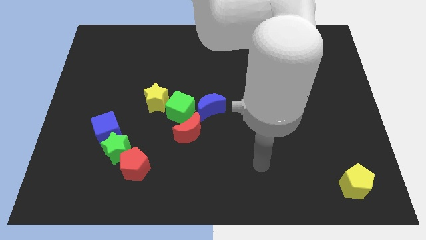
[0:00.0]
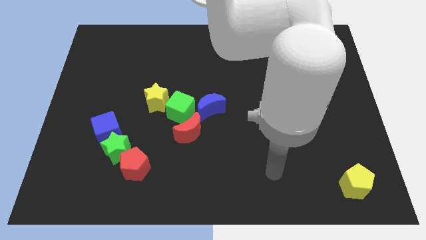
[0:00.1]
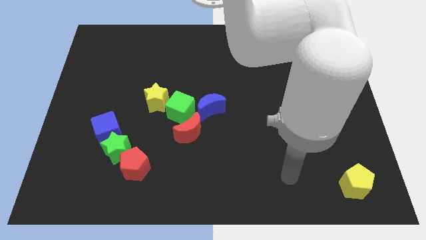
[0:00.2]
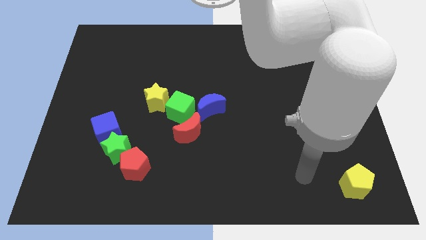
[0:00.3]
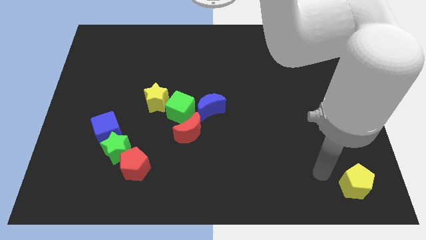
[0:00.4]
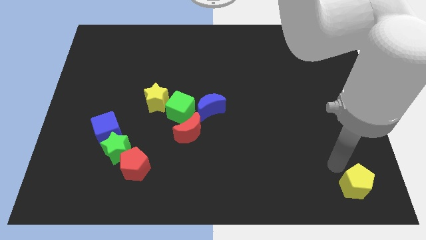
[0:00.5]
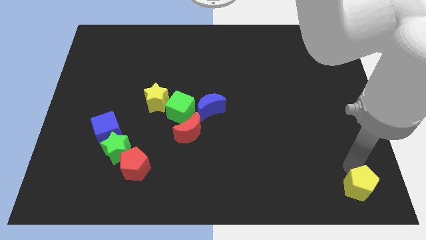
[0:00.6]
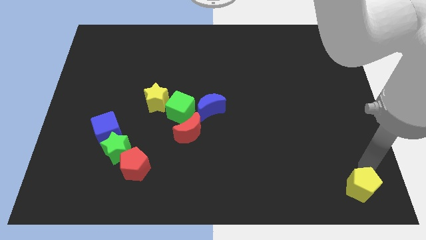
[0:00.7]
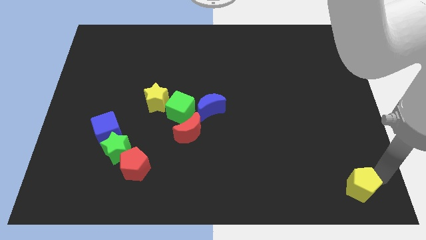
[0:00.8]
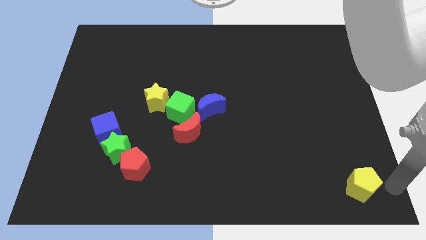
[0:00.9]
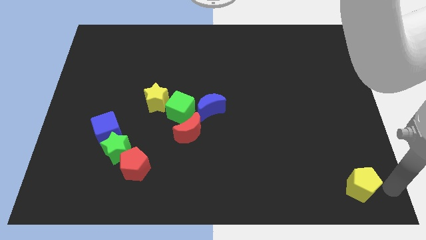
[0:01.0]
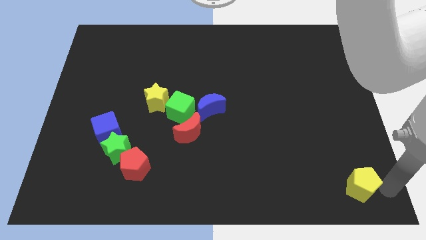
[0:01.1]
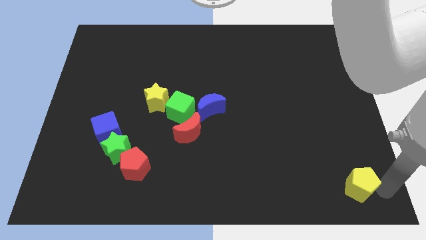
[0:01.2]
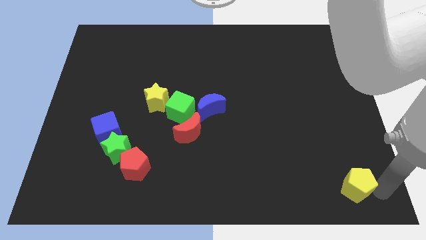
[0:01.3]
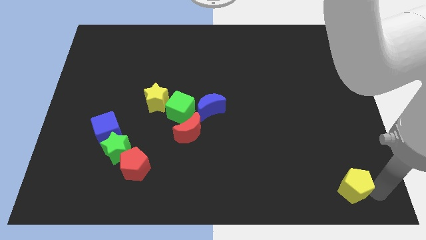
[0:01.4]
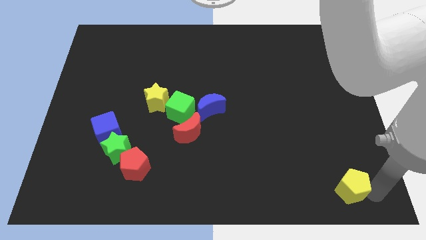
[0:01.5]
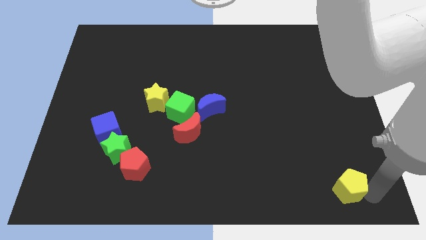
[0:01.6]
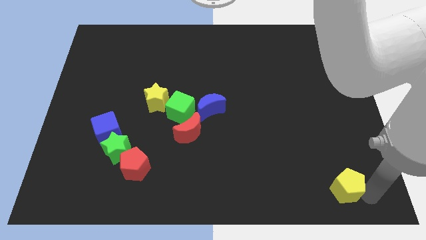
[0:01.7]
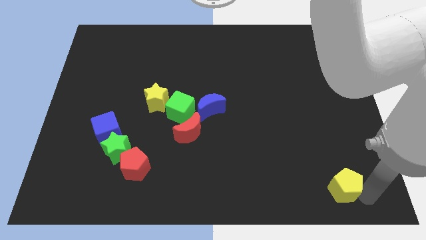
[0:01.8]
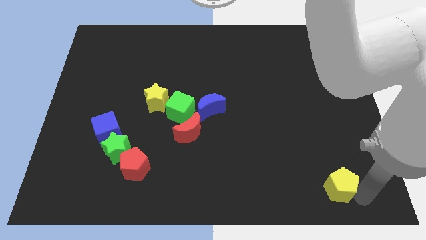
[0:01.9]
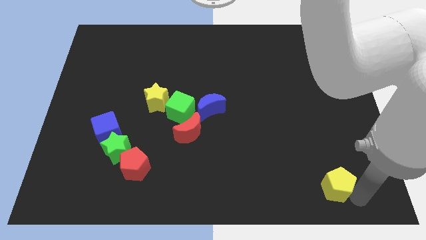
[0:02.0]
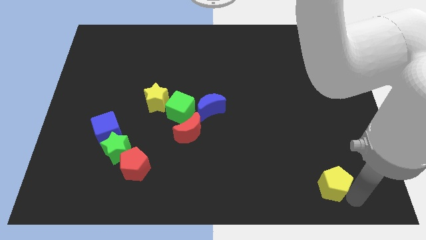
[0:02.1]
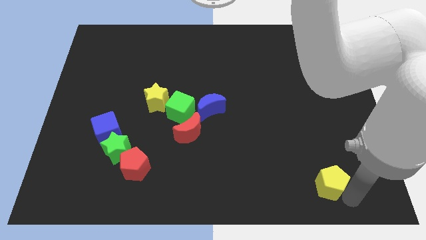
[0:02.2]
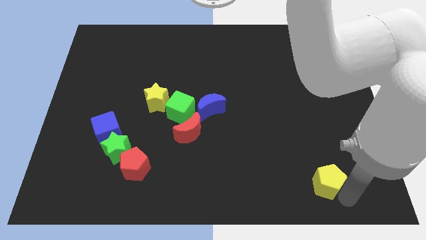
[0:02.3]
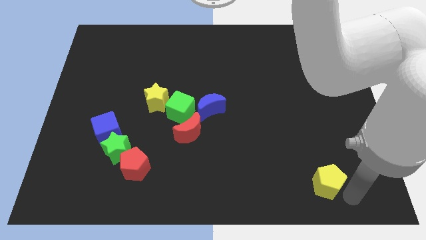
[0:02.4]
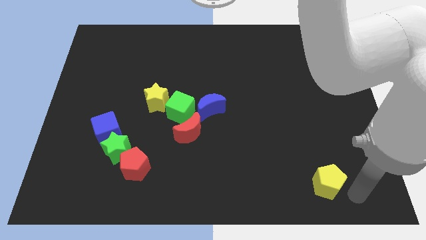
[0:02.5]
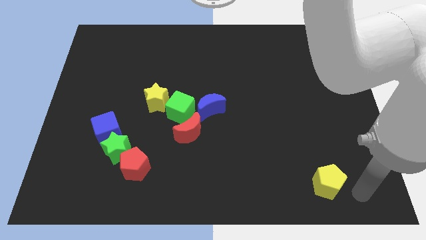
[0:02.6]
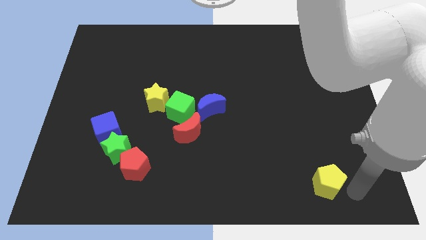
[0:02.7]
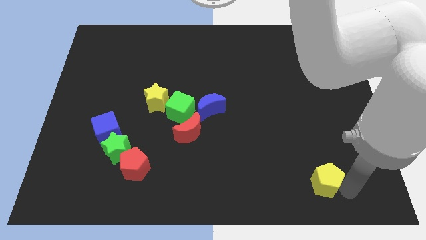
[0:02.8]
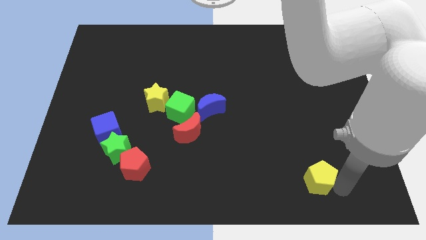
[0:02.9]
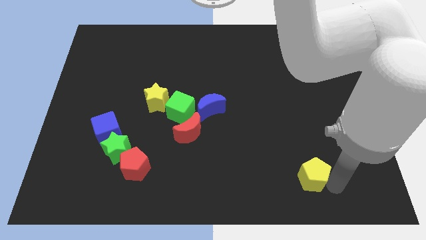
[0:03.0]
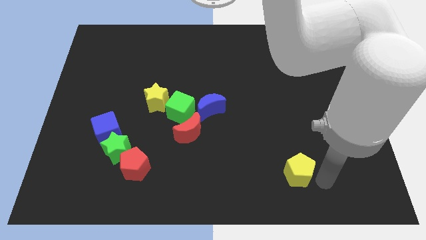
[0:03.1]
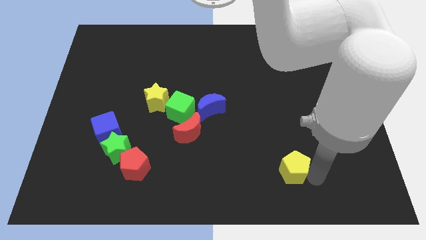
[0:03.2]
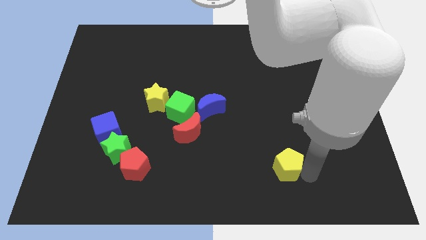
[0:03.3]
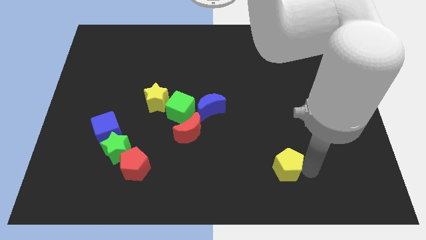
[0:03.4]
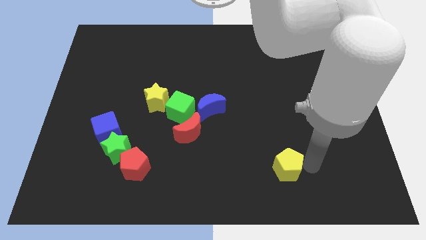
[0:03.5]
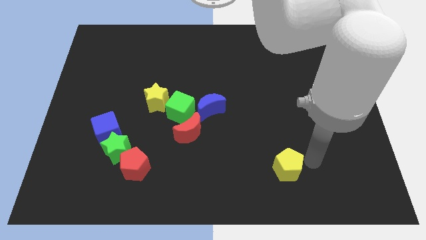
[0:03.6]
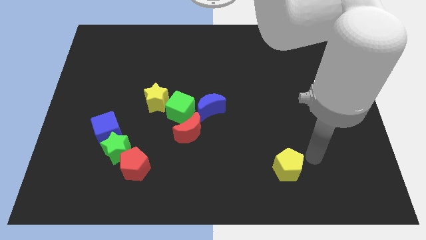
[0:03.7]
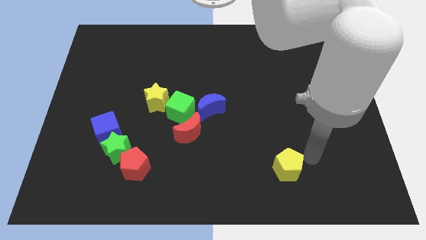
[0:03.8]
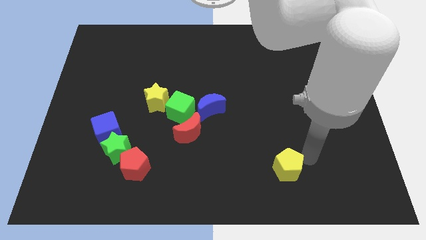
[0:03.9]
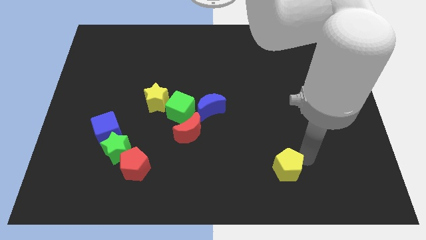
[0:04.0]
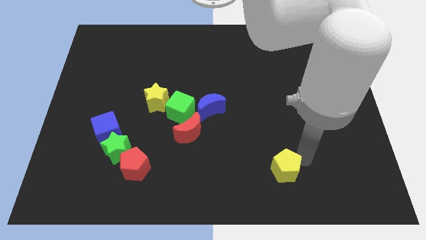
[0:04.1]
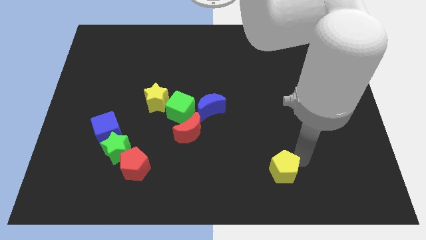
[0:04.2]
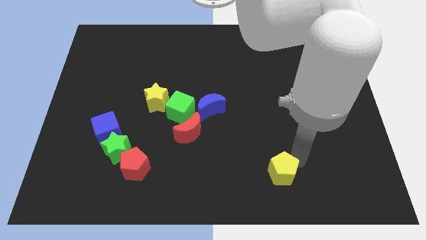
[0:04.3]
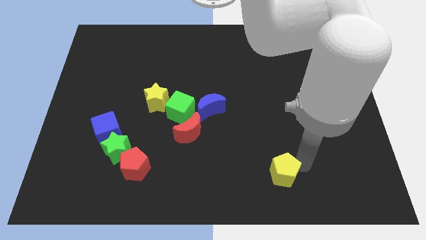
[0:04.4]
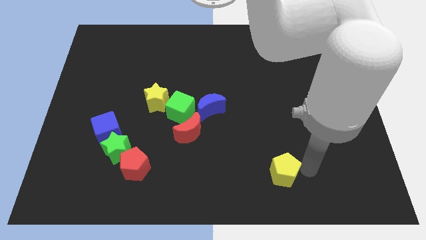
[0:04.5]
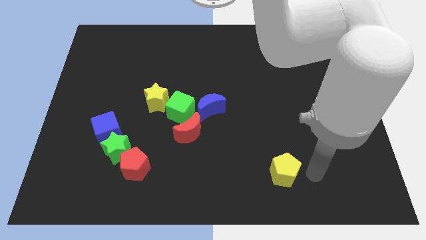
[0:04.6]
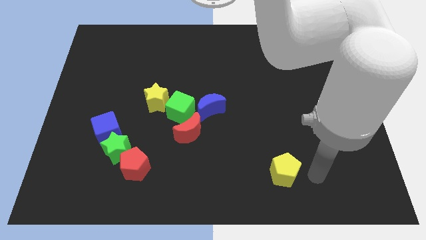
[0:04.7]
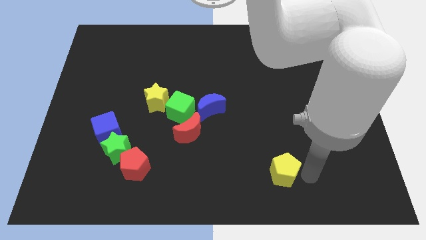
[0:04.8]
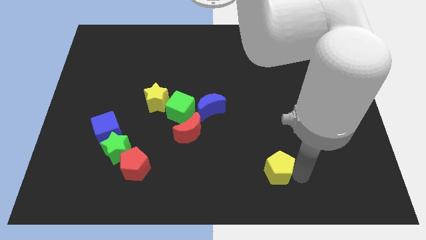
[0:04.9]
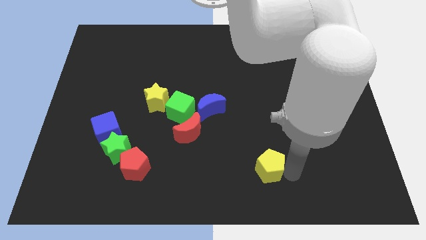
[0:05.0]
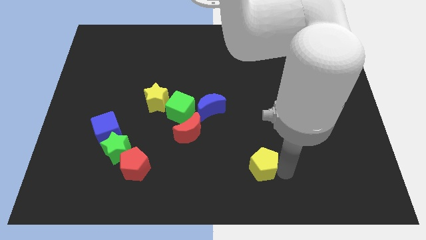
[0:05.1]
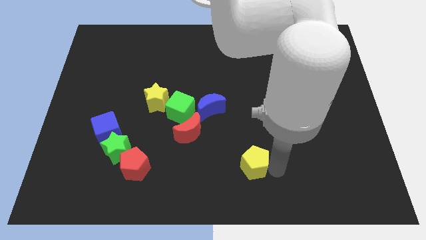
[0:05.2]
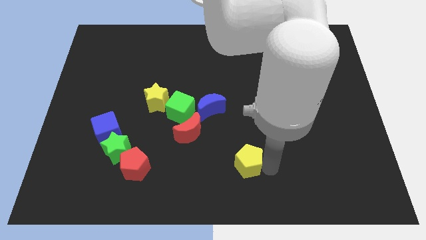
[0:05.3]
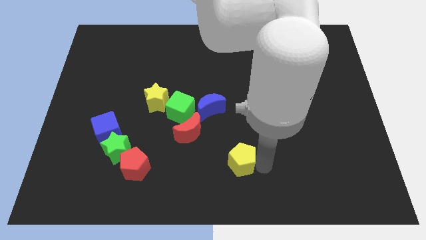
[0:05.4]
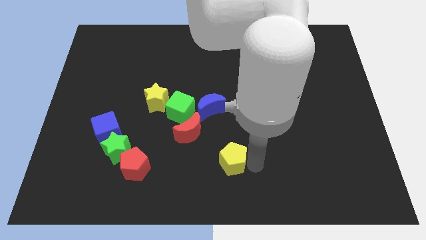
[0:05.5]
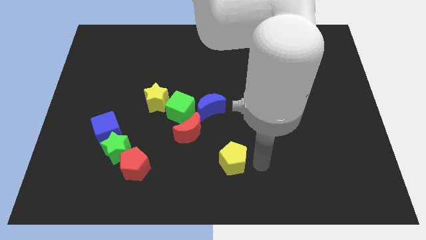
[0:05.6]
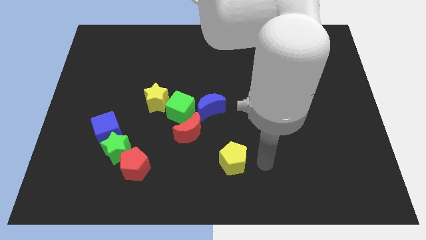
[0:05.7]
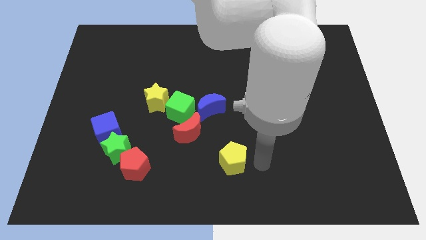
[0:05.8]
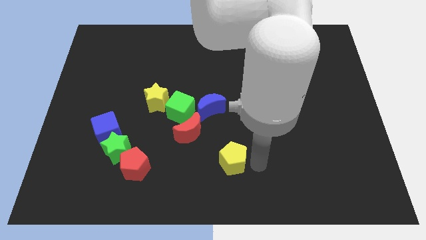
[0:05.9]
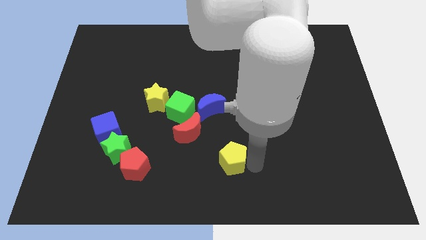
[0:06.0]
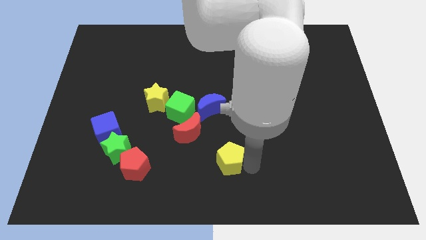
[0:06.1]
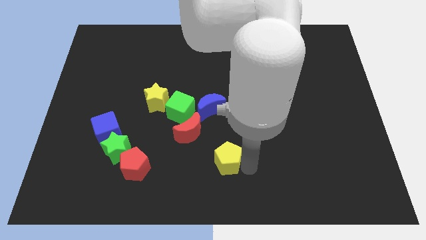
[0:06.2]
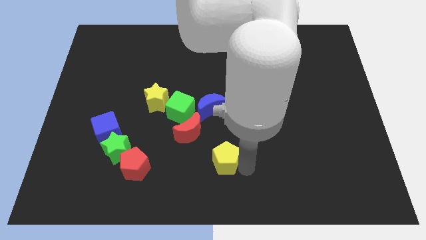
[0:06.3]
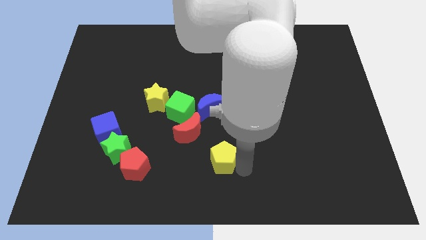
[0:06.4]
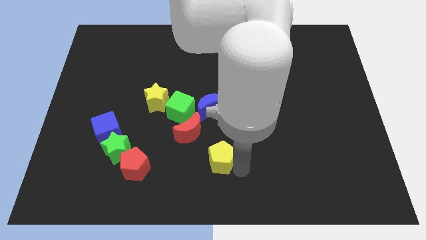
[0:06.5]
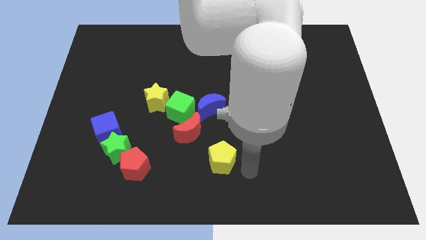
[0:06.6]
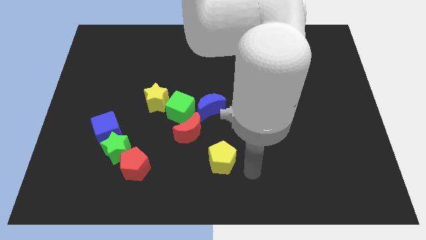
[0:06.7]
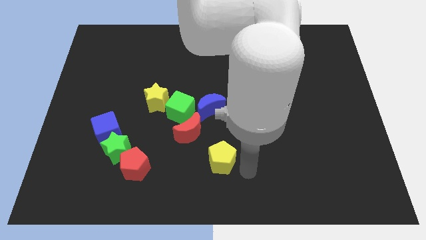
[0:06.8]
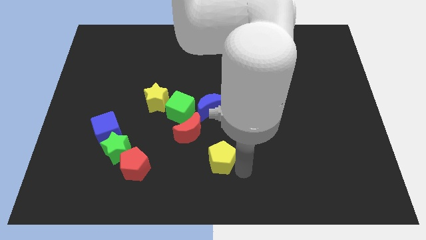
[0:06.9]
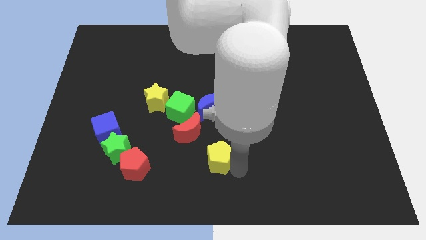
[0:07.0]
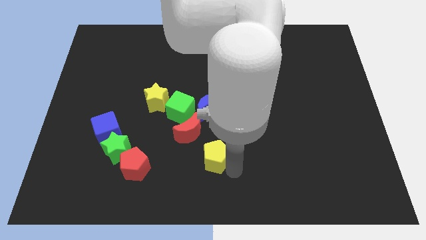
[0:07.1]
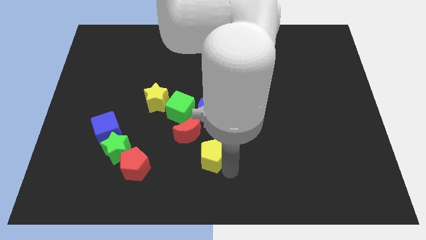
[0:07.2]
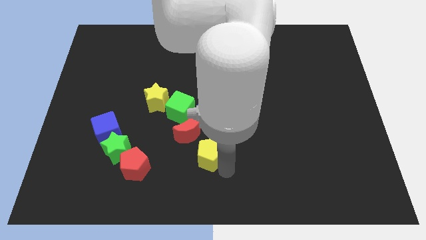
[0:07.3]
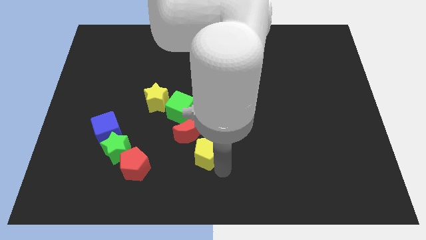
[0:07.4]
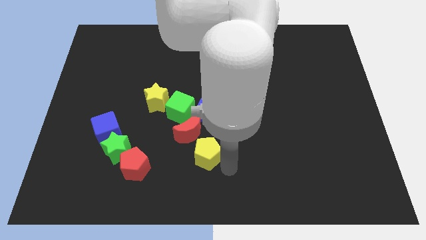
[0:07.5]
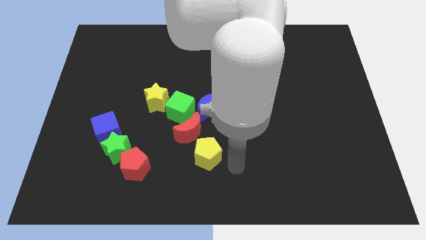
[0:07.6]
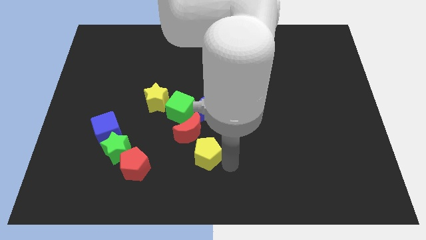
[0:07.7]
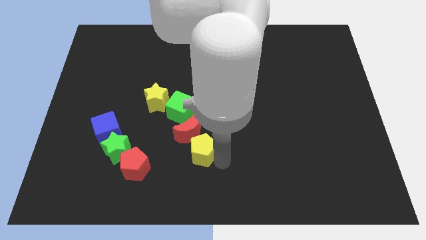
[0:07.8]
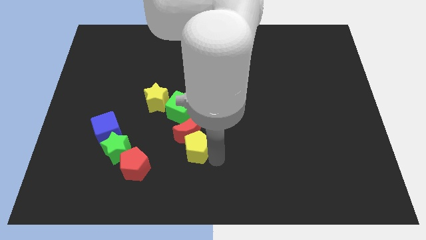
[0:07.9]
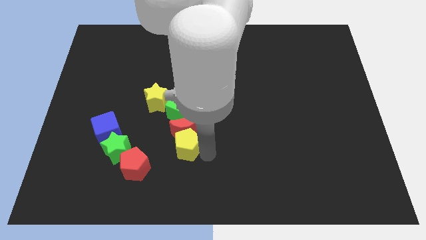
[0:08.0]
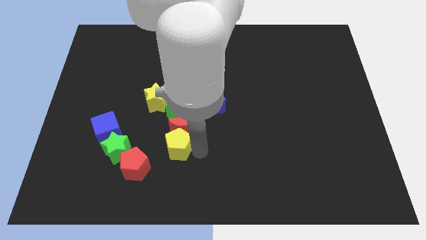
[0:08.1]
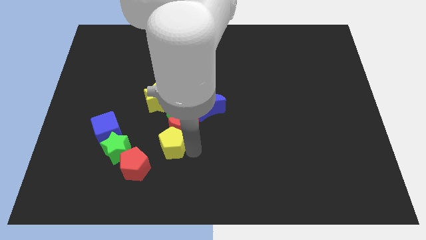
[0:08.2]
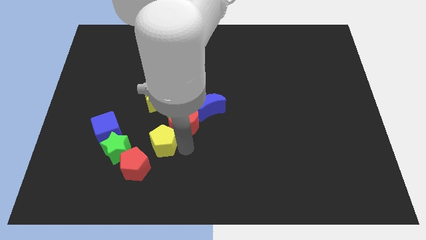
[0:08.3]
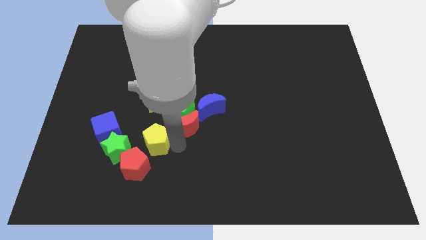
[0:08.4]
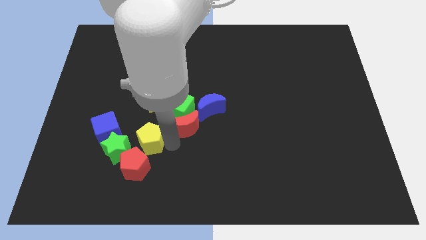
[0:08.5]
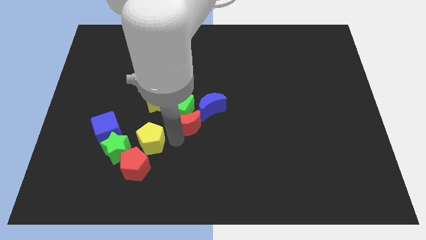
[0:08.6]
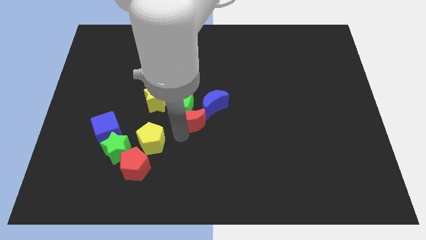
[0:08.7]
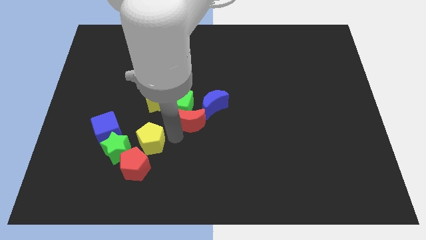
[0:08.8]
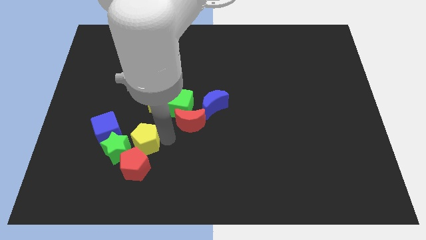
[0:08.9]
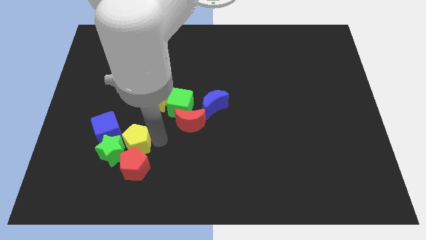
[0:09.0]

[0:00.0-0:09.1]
slide the yellow pentagon to the green star
